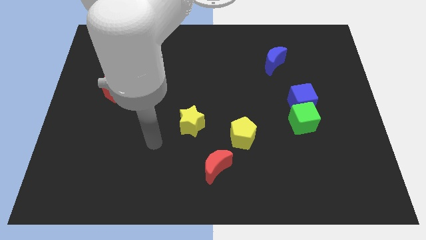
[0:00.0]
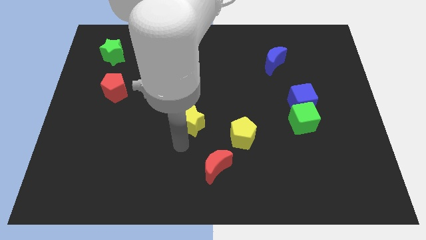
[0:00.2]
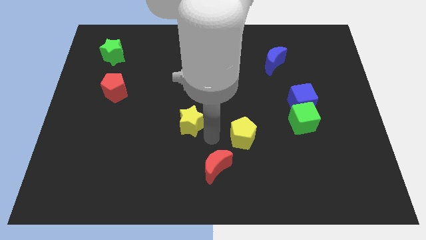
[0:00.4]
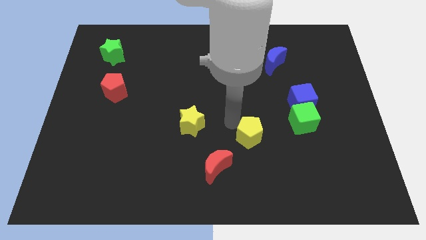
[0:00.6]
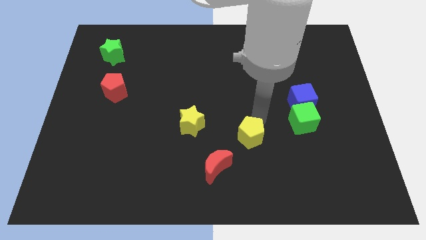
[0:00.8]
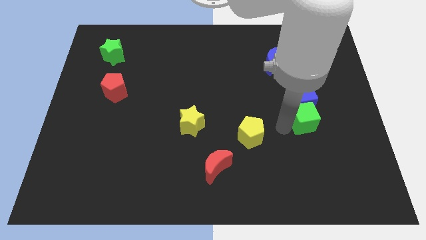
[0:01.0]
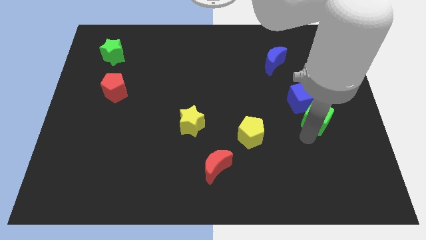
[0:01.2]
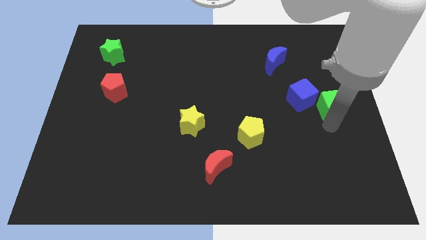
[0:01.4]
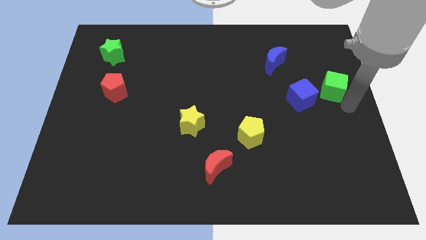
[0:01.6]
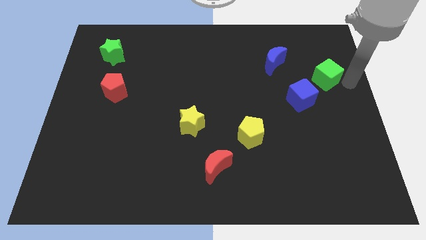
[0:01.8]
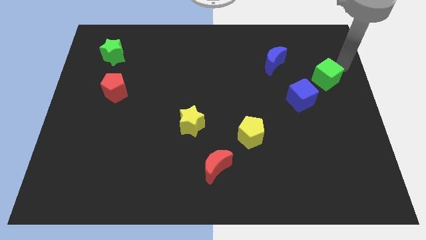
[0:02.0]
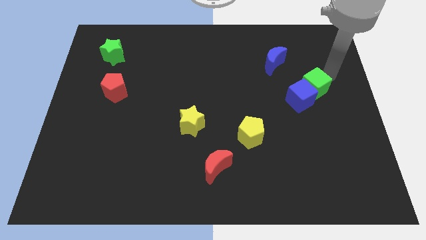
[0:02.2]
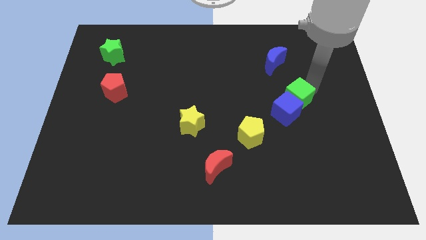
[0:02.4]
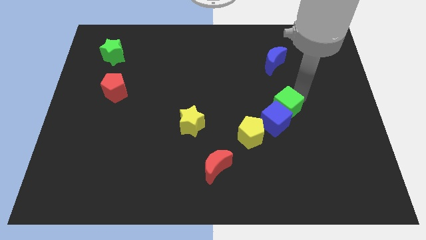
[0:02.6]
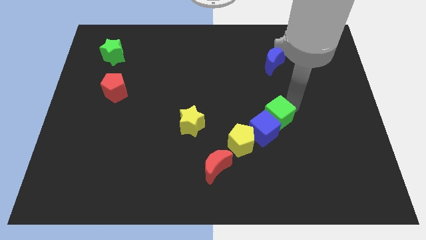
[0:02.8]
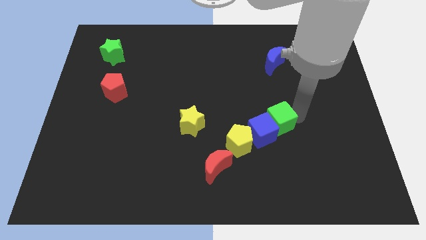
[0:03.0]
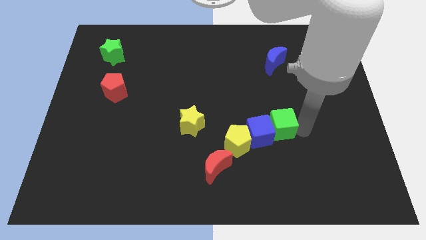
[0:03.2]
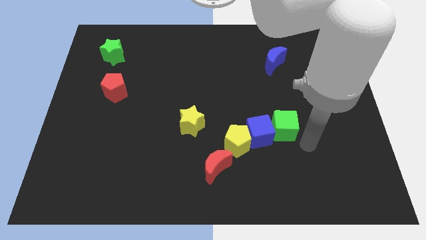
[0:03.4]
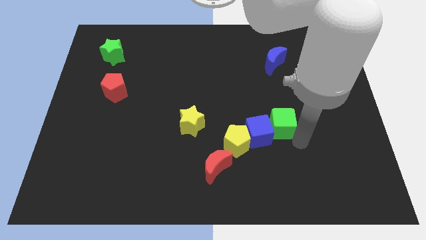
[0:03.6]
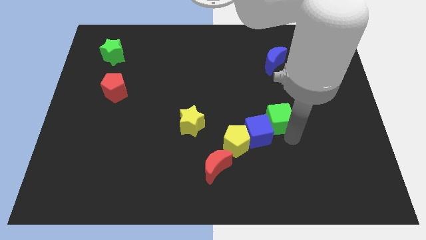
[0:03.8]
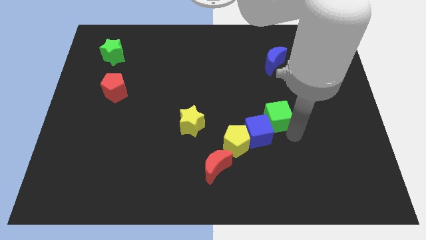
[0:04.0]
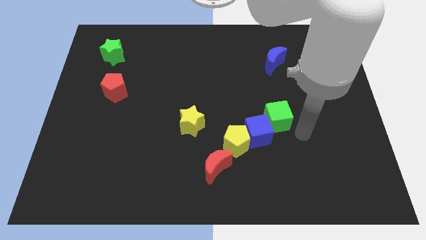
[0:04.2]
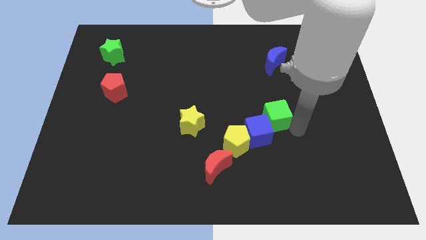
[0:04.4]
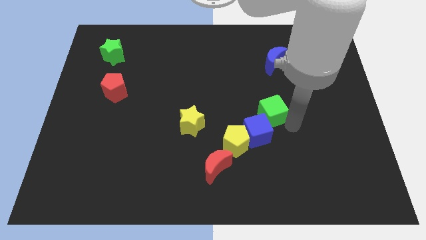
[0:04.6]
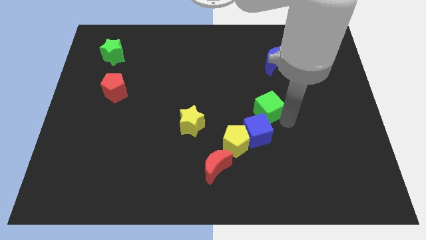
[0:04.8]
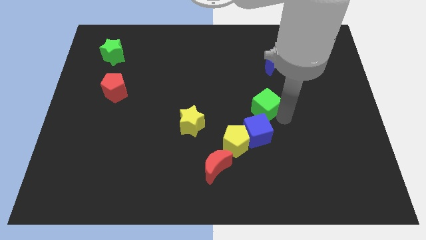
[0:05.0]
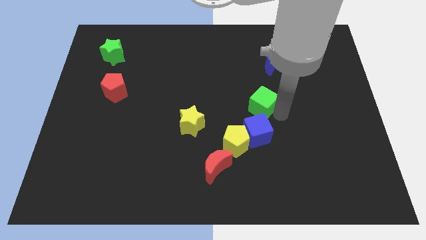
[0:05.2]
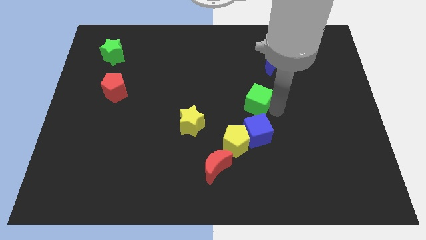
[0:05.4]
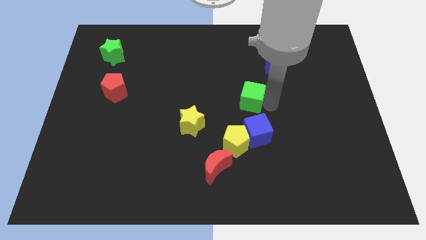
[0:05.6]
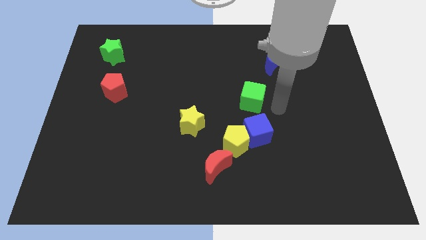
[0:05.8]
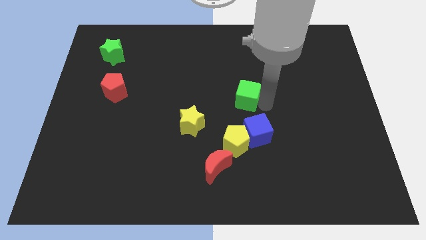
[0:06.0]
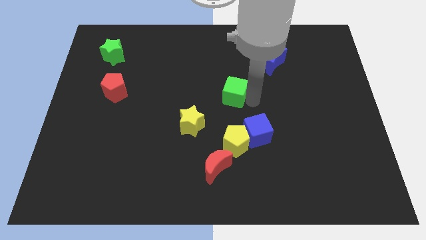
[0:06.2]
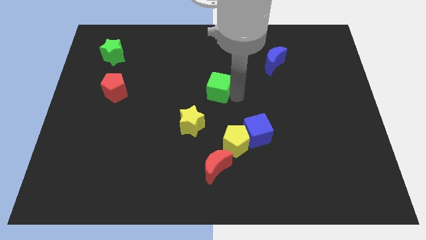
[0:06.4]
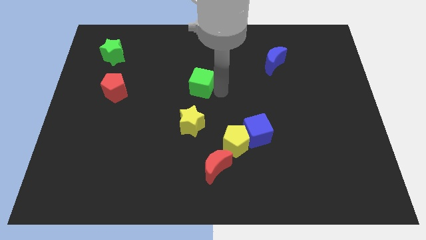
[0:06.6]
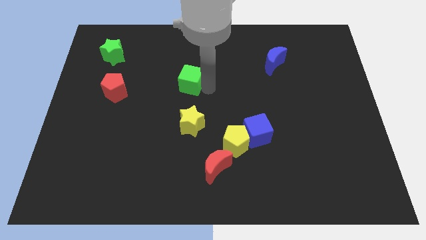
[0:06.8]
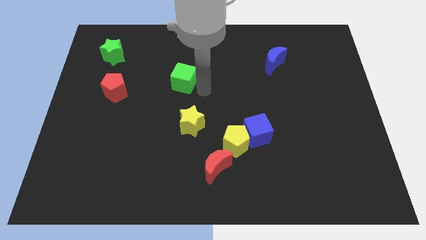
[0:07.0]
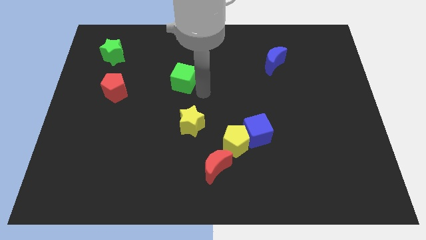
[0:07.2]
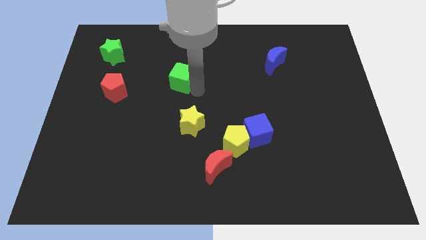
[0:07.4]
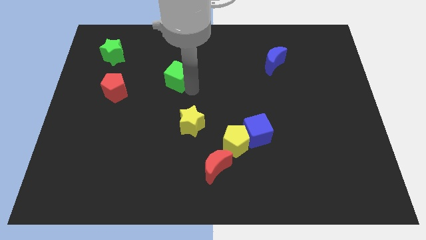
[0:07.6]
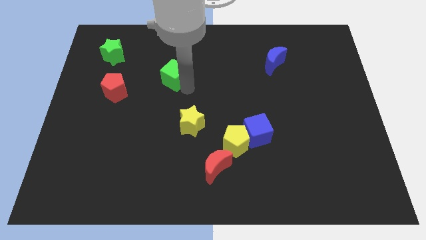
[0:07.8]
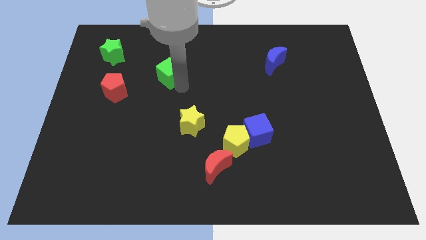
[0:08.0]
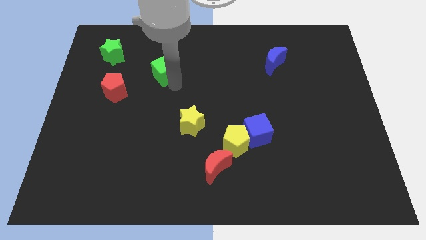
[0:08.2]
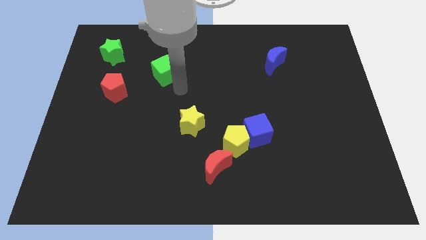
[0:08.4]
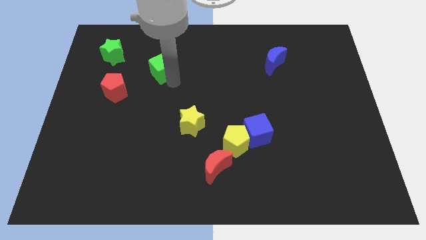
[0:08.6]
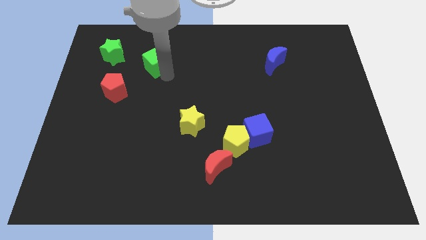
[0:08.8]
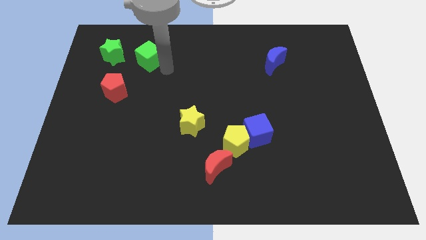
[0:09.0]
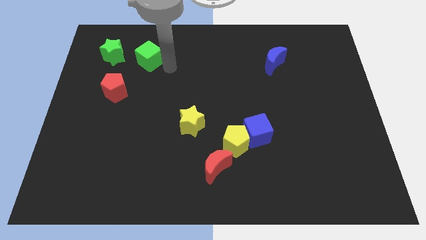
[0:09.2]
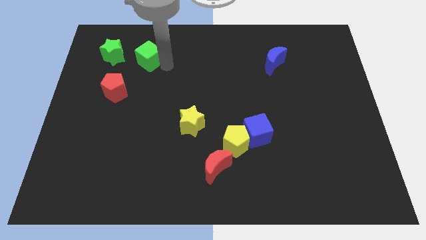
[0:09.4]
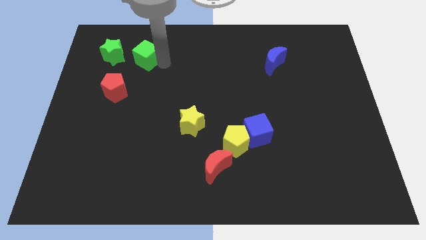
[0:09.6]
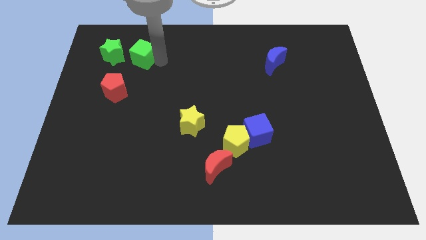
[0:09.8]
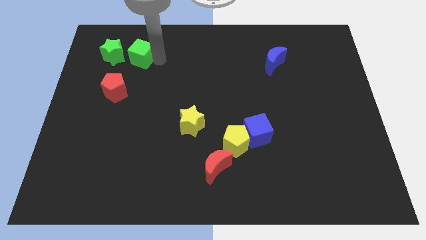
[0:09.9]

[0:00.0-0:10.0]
put the green cube above the red pentagon

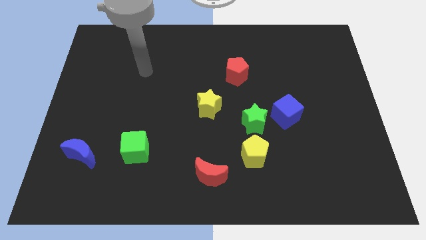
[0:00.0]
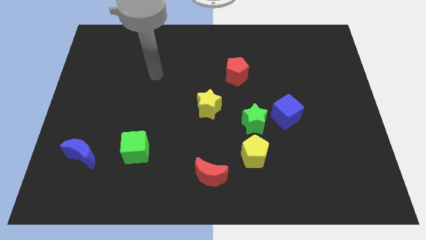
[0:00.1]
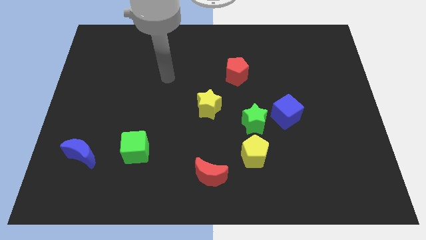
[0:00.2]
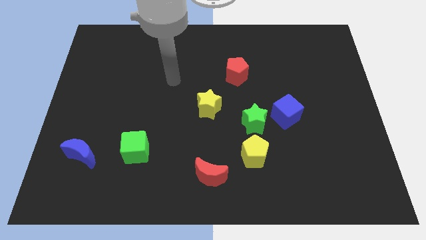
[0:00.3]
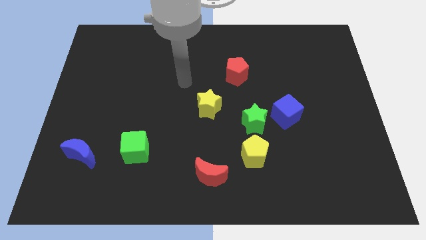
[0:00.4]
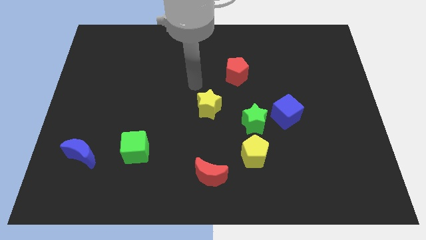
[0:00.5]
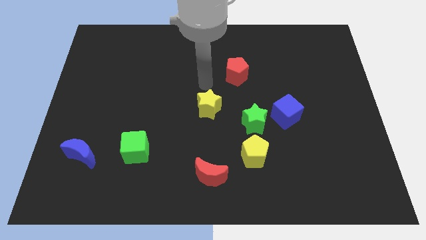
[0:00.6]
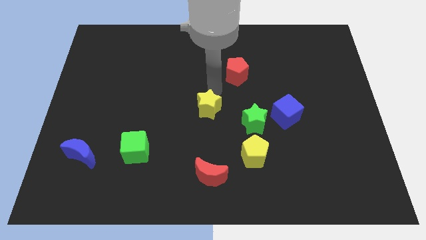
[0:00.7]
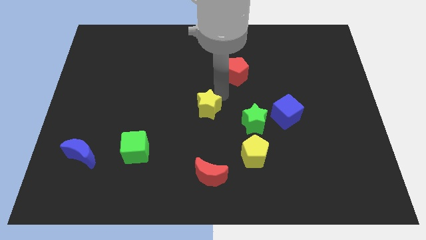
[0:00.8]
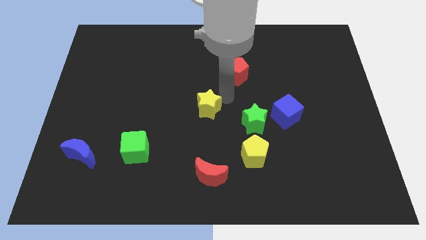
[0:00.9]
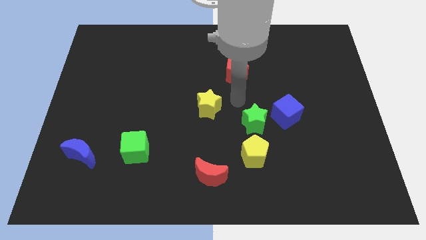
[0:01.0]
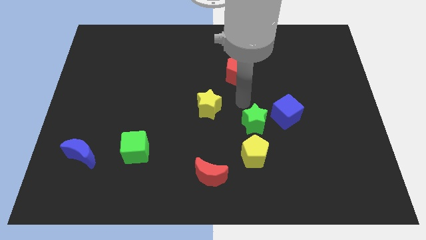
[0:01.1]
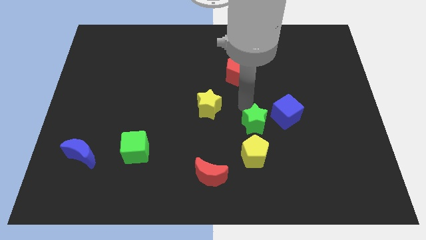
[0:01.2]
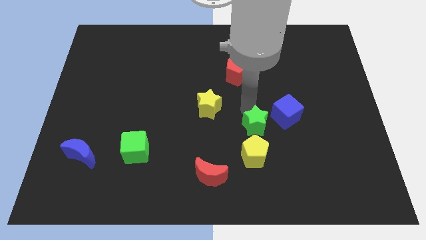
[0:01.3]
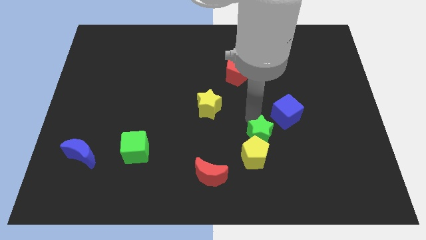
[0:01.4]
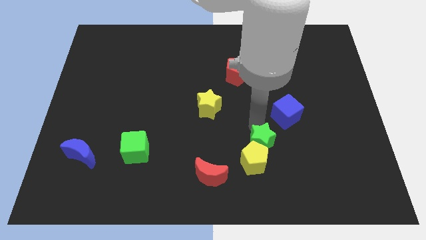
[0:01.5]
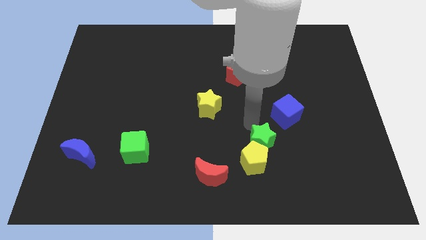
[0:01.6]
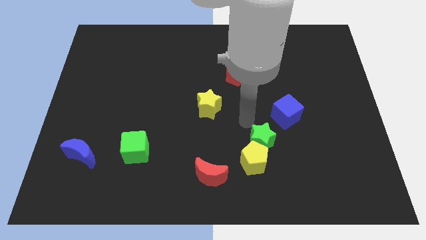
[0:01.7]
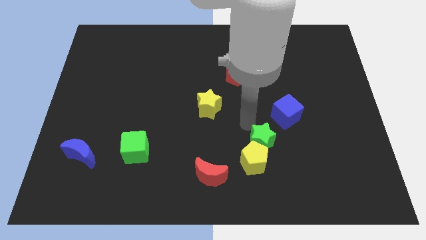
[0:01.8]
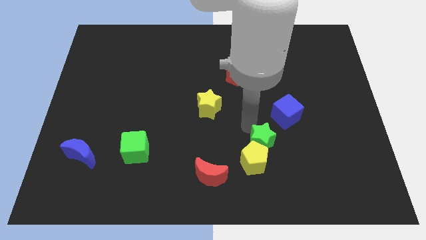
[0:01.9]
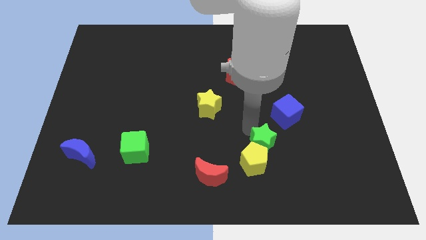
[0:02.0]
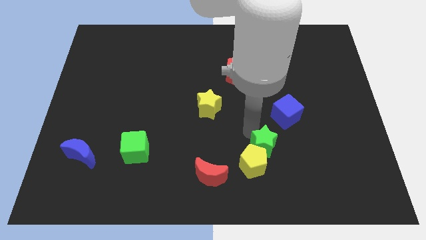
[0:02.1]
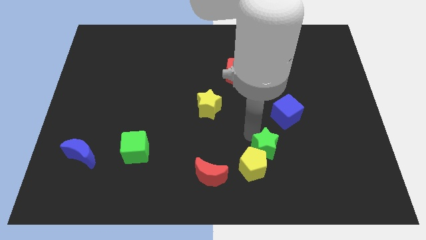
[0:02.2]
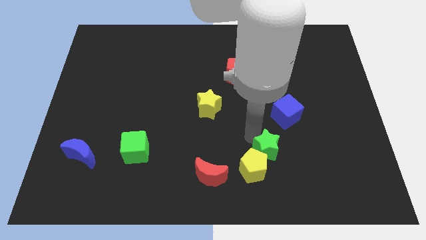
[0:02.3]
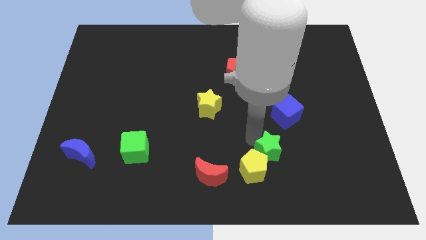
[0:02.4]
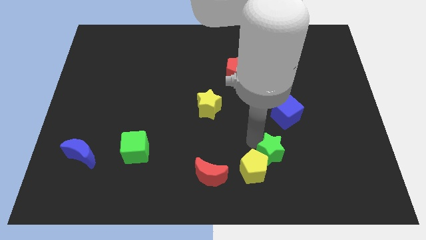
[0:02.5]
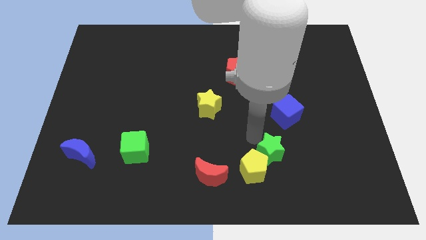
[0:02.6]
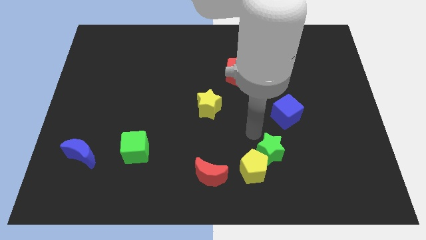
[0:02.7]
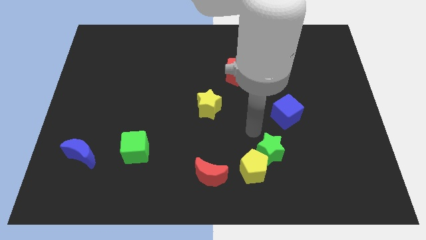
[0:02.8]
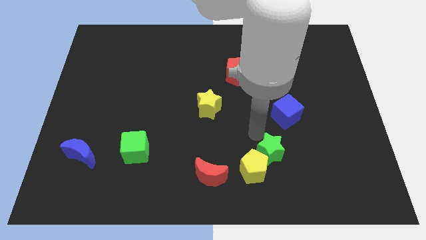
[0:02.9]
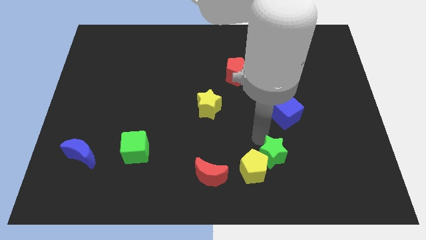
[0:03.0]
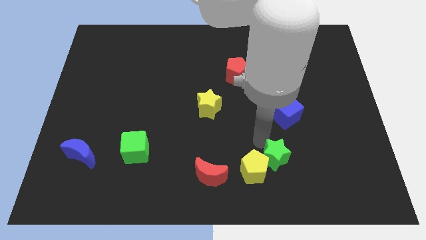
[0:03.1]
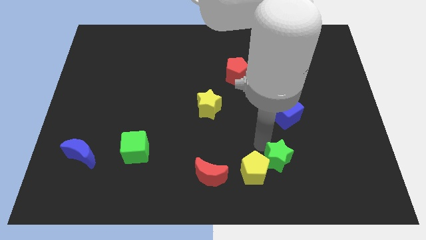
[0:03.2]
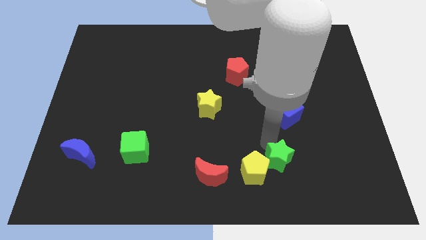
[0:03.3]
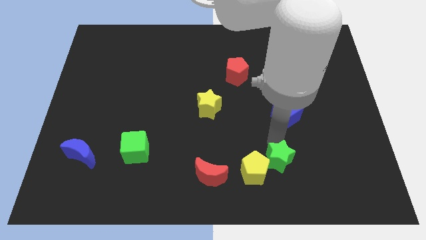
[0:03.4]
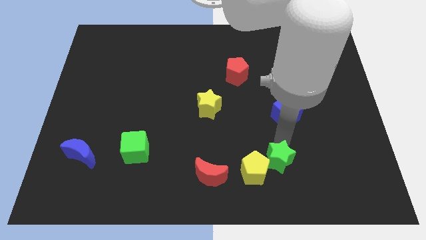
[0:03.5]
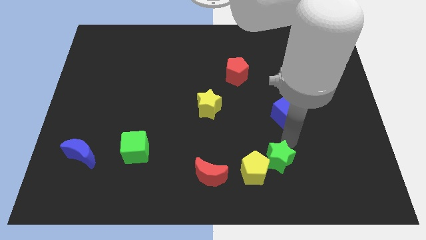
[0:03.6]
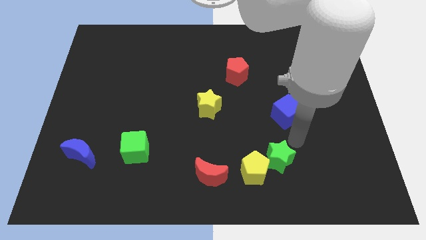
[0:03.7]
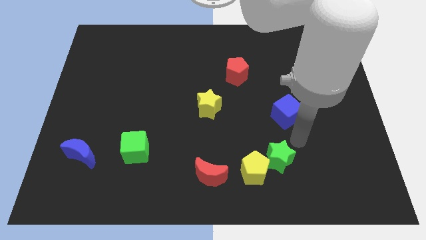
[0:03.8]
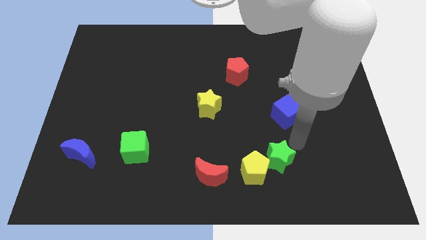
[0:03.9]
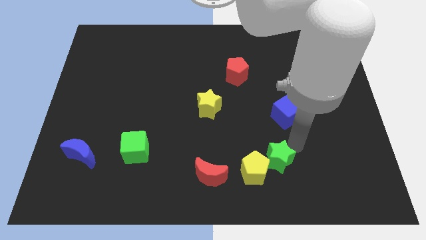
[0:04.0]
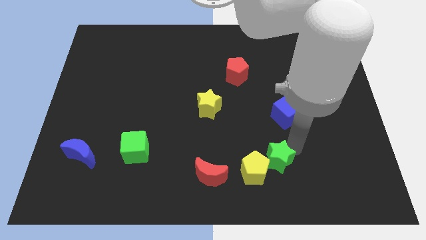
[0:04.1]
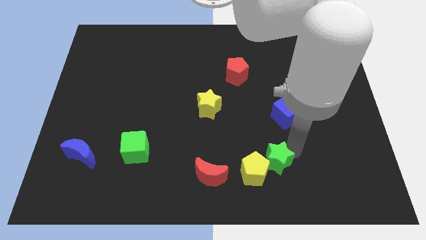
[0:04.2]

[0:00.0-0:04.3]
push the green star just right of the red moon
